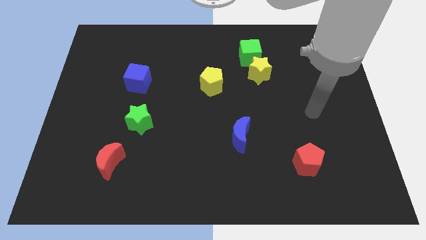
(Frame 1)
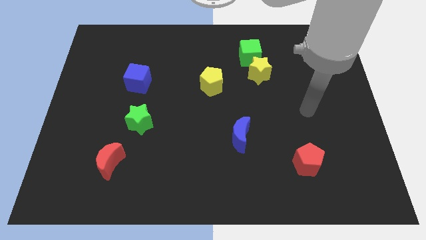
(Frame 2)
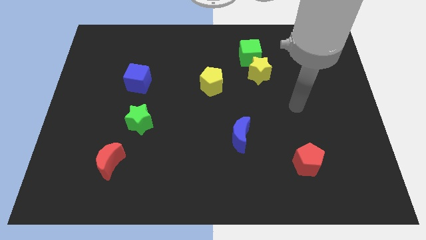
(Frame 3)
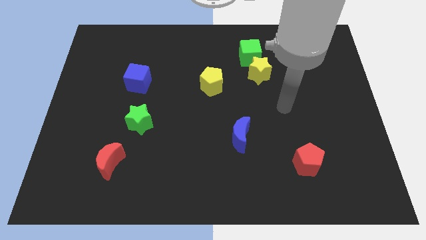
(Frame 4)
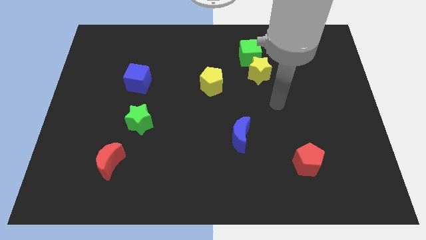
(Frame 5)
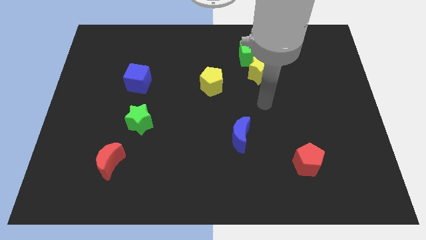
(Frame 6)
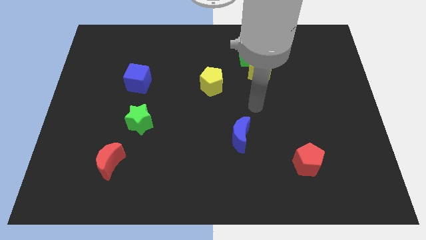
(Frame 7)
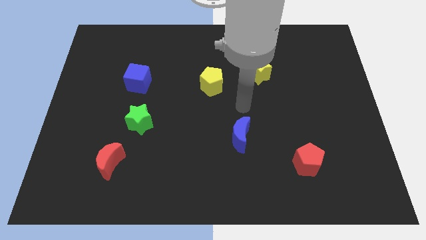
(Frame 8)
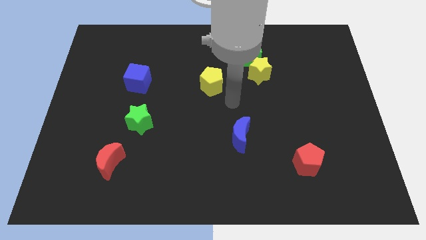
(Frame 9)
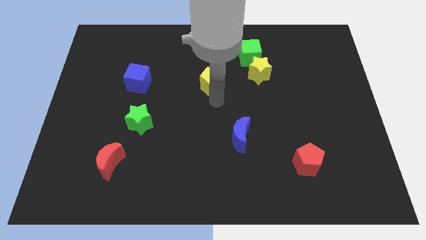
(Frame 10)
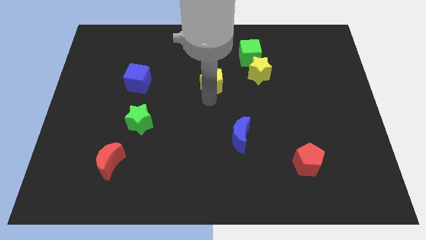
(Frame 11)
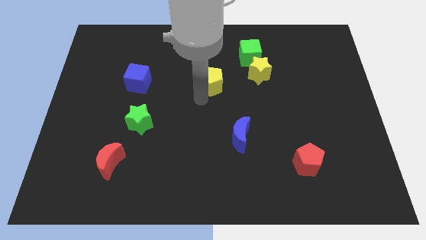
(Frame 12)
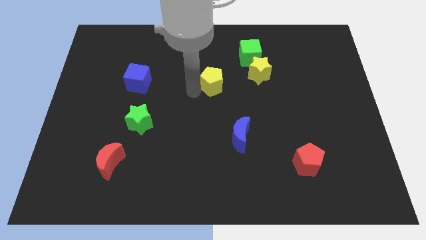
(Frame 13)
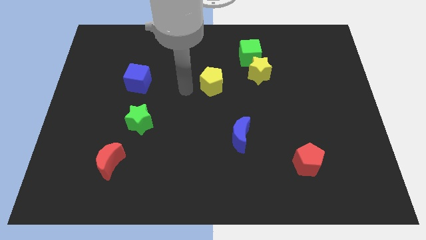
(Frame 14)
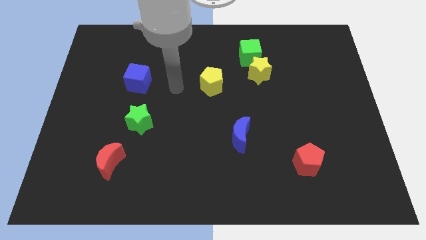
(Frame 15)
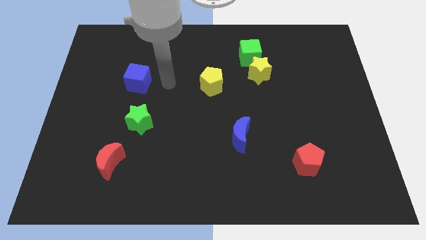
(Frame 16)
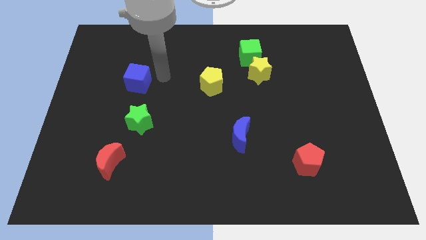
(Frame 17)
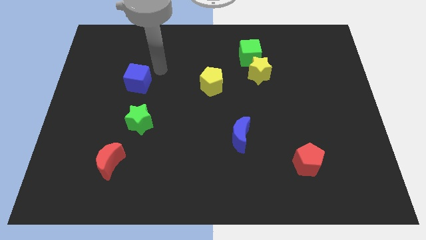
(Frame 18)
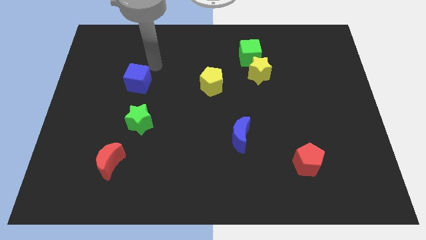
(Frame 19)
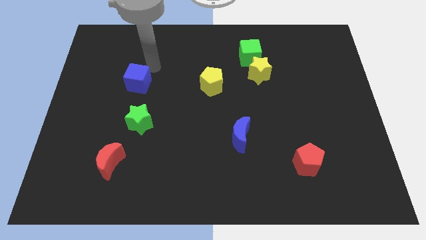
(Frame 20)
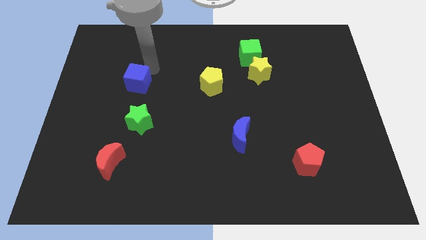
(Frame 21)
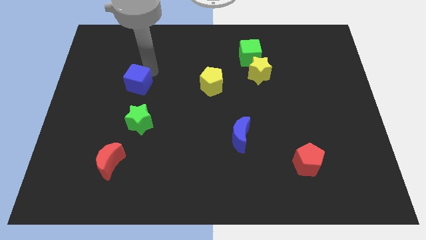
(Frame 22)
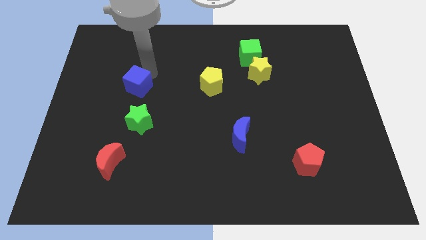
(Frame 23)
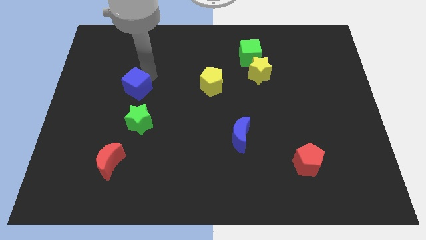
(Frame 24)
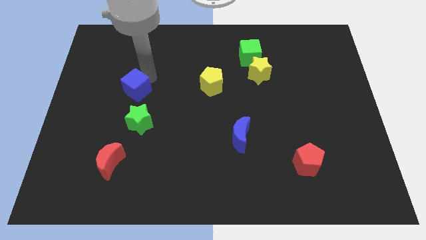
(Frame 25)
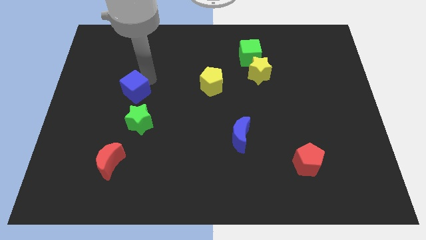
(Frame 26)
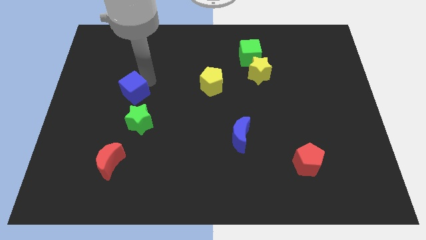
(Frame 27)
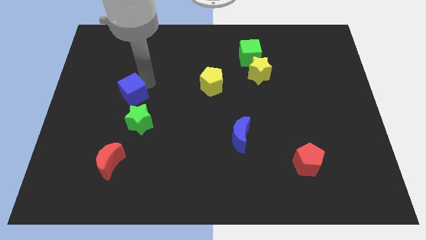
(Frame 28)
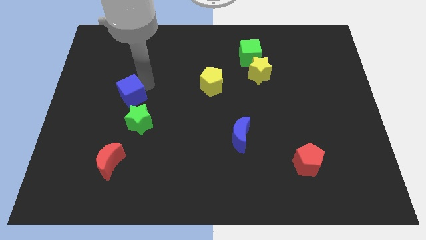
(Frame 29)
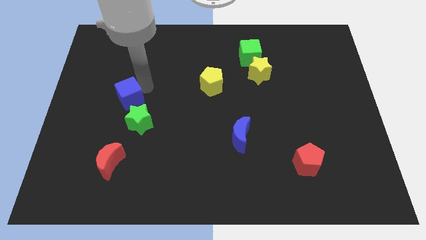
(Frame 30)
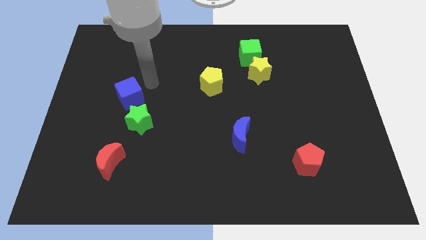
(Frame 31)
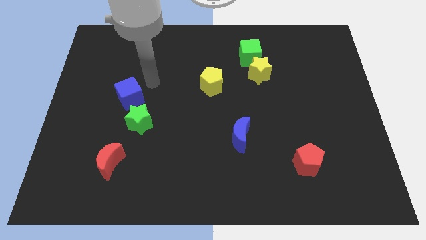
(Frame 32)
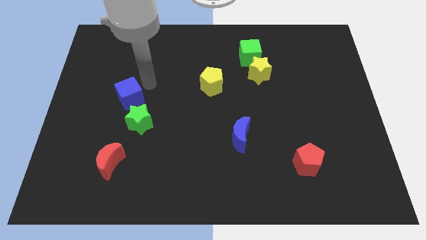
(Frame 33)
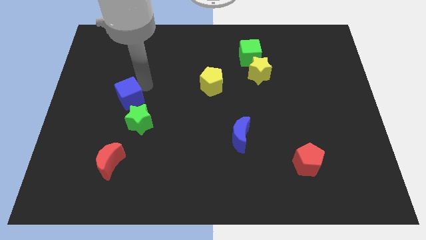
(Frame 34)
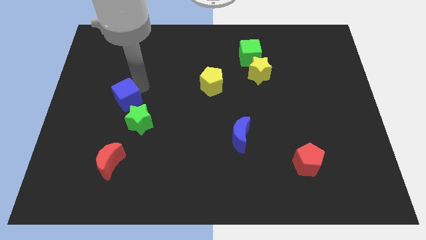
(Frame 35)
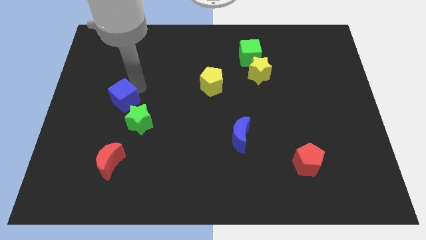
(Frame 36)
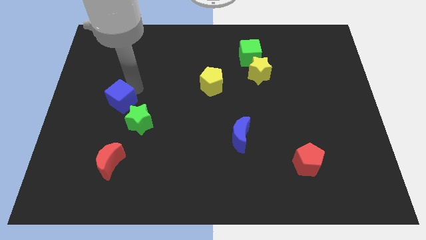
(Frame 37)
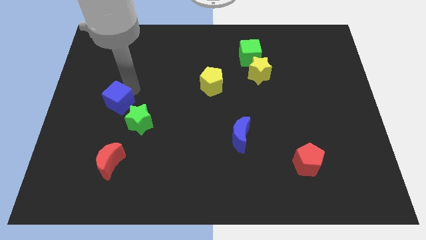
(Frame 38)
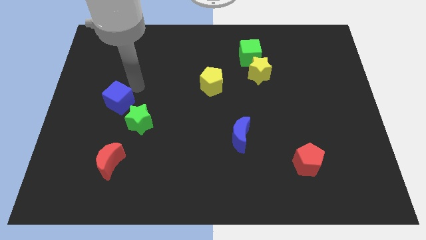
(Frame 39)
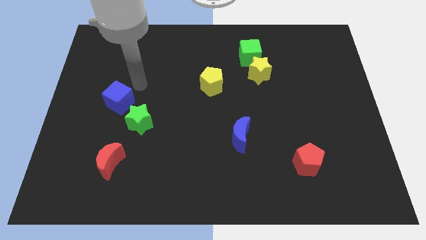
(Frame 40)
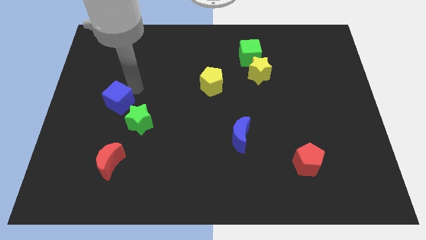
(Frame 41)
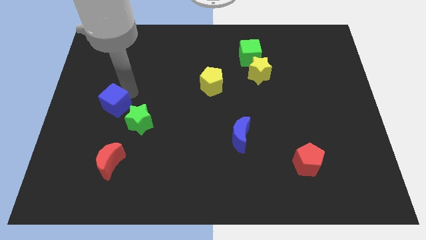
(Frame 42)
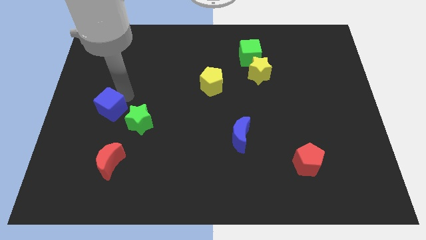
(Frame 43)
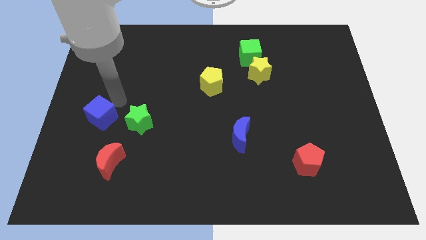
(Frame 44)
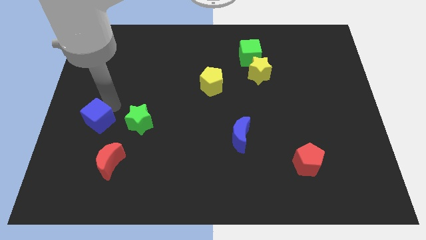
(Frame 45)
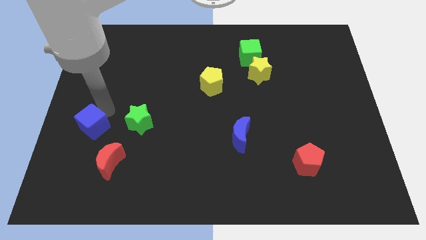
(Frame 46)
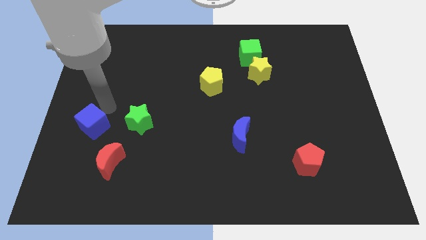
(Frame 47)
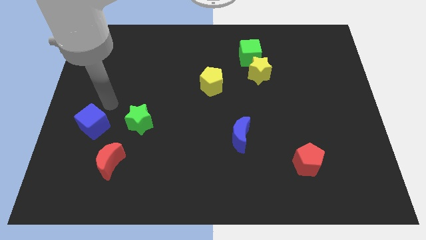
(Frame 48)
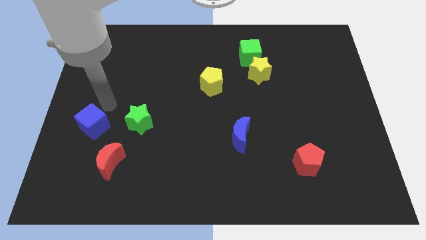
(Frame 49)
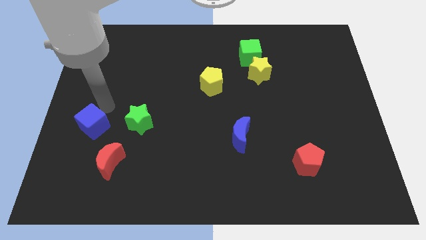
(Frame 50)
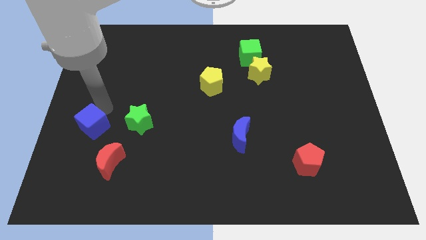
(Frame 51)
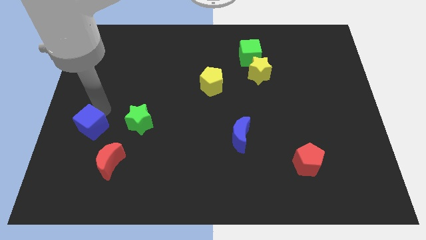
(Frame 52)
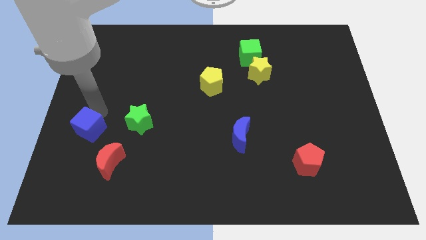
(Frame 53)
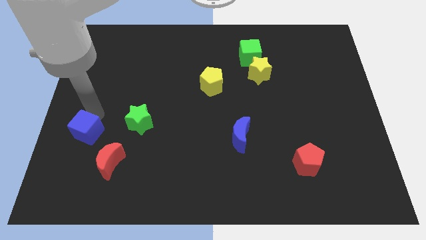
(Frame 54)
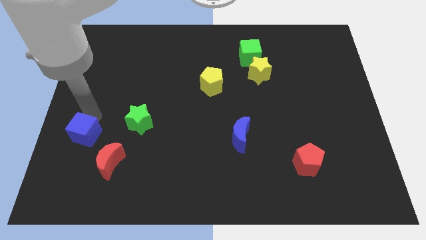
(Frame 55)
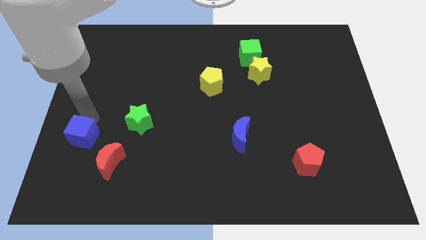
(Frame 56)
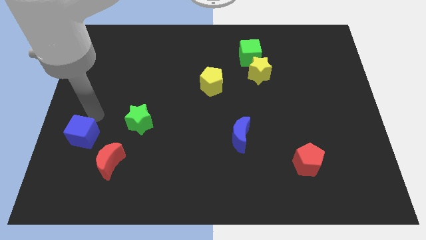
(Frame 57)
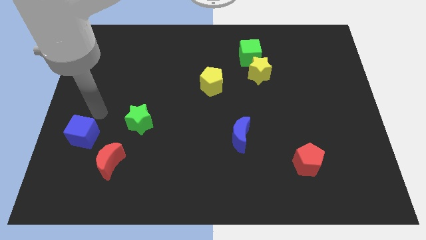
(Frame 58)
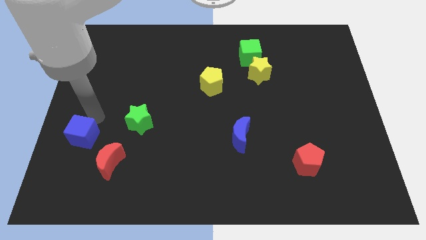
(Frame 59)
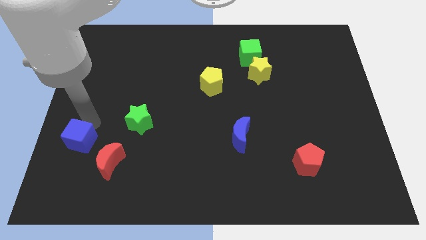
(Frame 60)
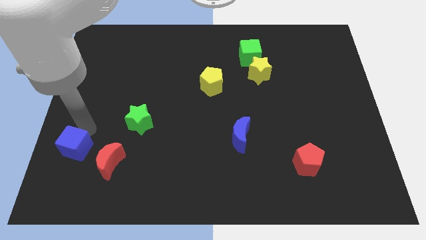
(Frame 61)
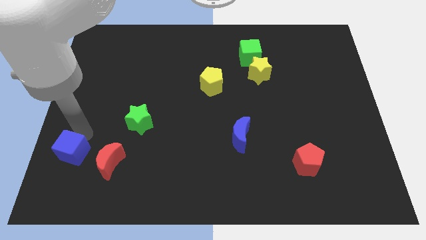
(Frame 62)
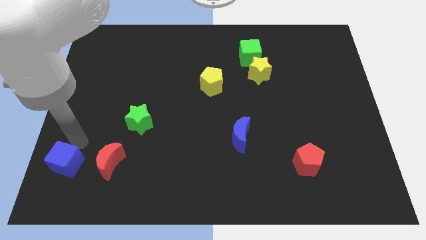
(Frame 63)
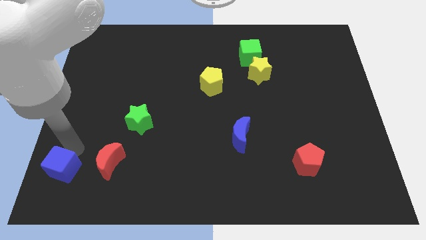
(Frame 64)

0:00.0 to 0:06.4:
move the blue cube to the bottom left
